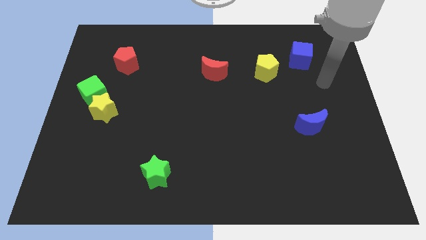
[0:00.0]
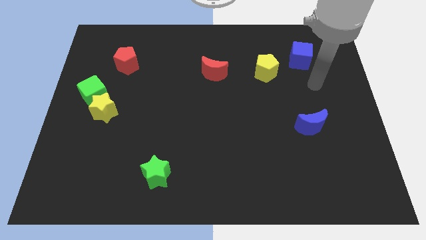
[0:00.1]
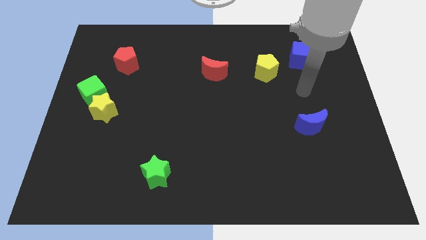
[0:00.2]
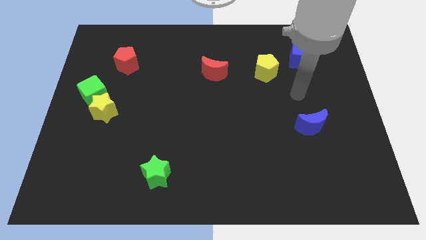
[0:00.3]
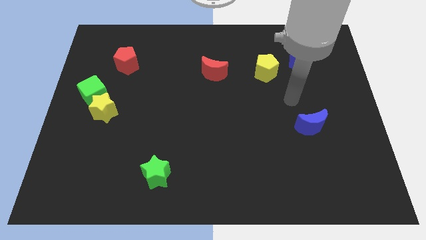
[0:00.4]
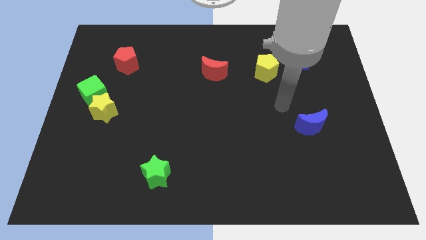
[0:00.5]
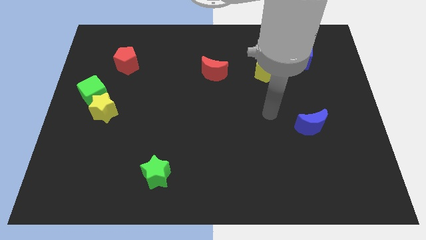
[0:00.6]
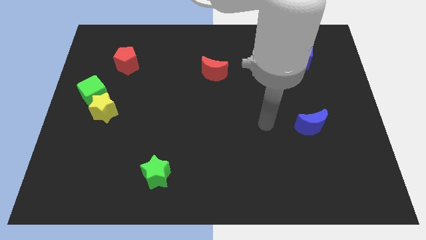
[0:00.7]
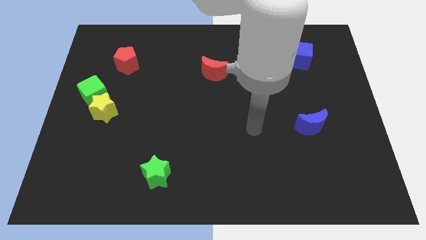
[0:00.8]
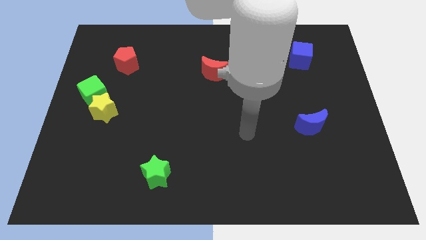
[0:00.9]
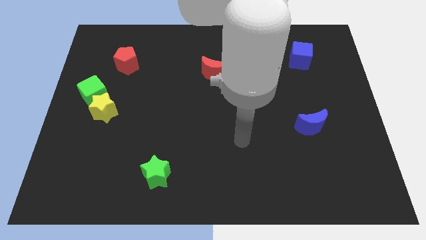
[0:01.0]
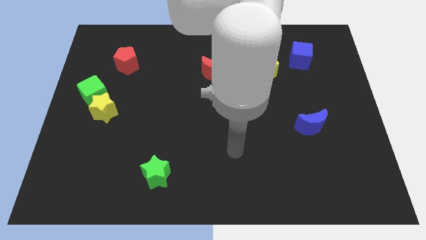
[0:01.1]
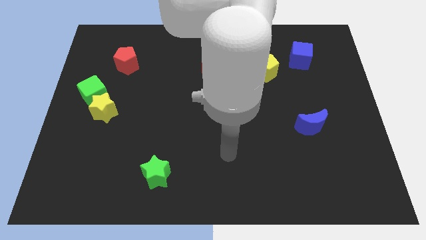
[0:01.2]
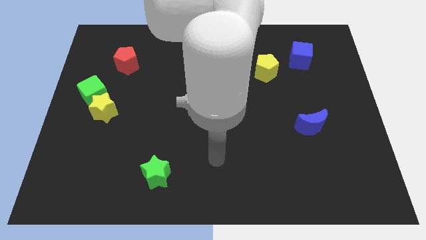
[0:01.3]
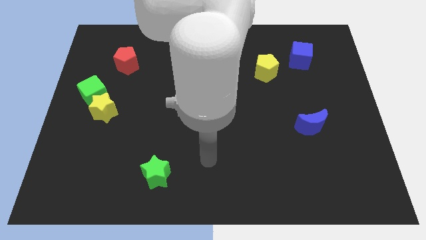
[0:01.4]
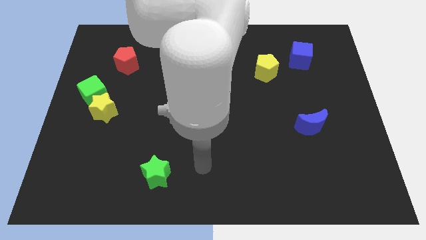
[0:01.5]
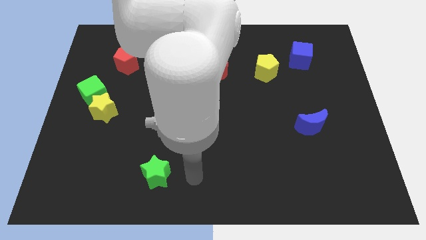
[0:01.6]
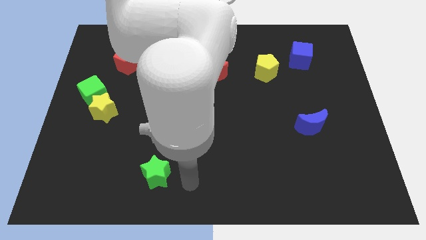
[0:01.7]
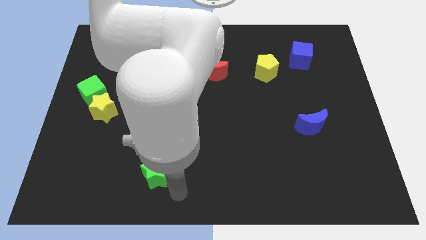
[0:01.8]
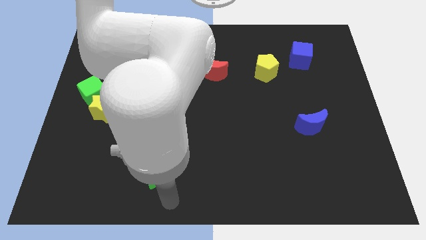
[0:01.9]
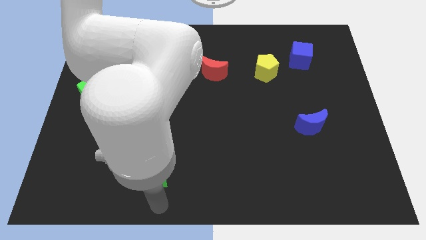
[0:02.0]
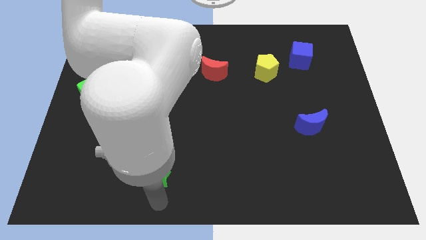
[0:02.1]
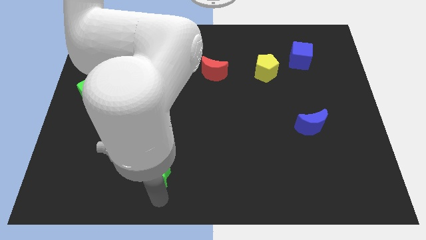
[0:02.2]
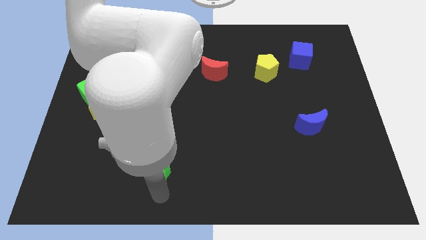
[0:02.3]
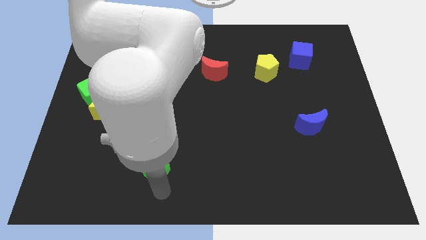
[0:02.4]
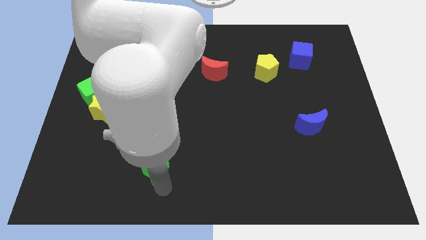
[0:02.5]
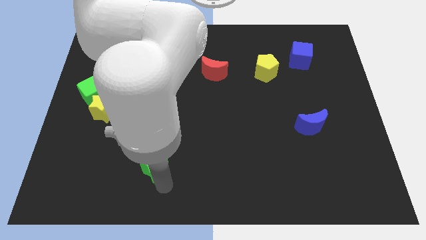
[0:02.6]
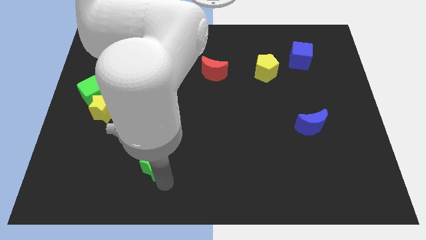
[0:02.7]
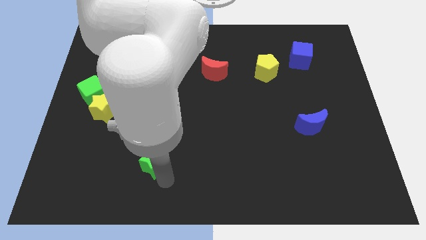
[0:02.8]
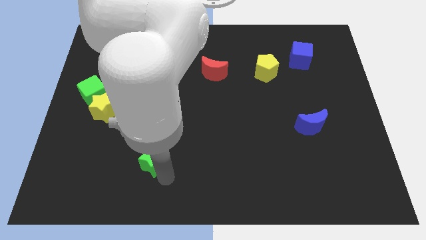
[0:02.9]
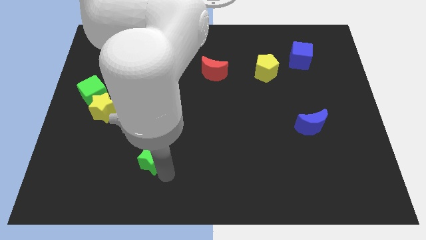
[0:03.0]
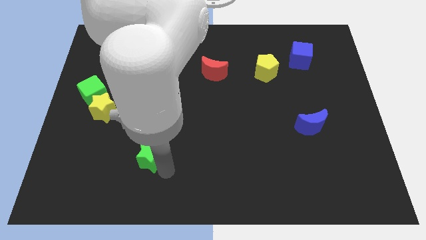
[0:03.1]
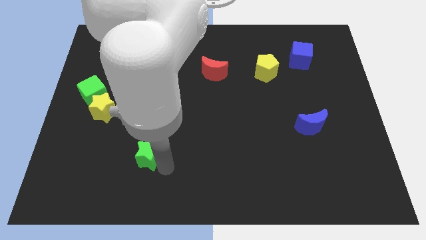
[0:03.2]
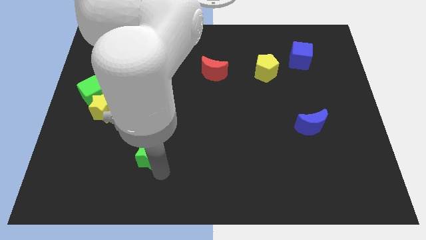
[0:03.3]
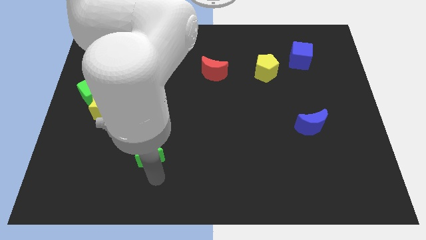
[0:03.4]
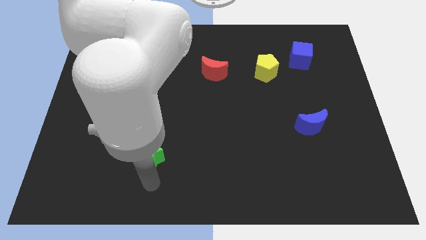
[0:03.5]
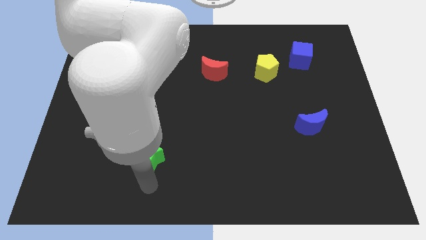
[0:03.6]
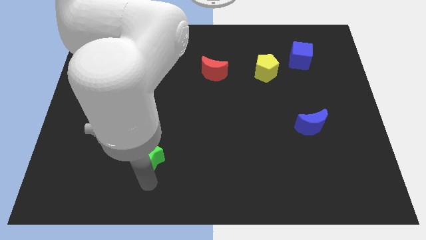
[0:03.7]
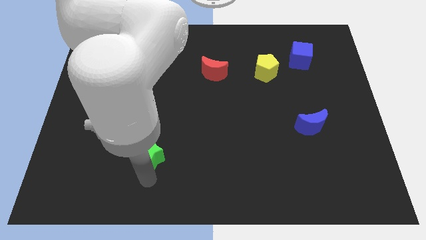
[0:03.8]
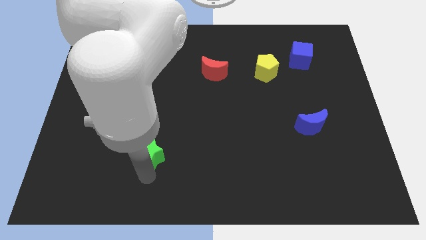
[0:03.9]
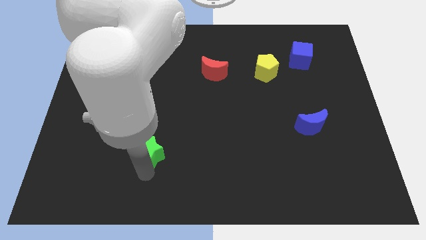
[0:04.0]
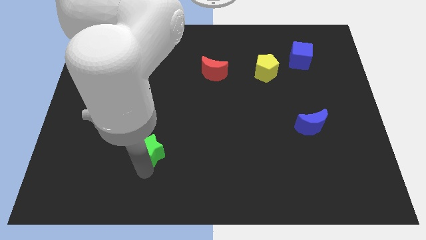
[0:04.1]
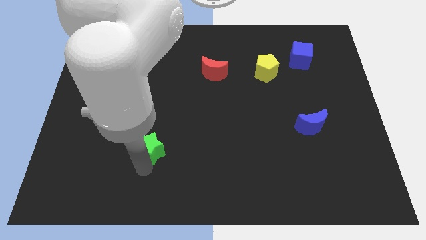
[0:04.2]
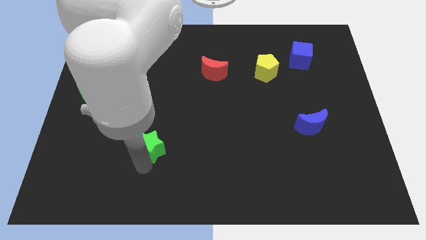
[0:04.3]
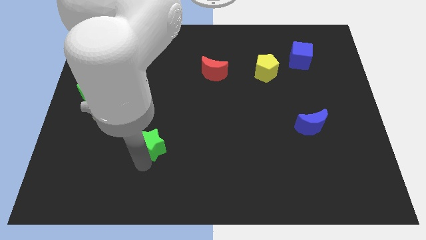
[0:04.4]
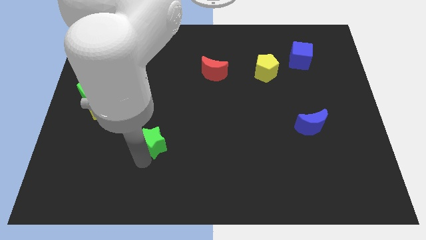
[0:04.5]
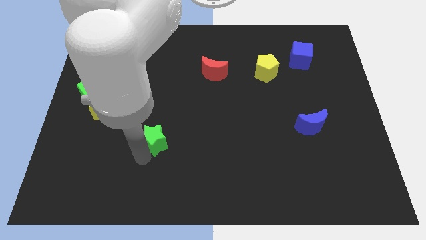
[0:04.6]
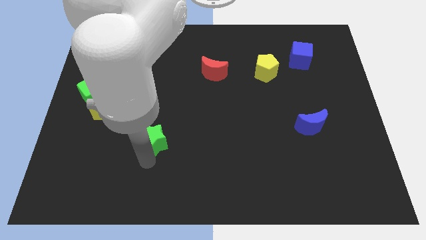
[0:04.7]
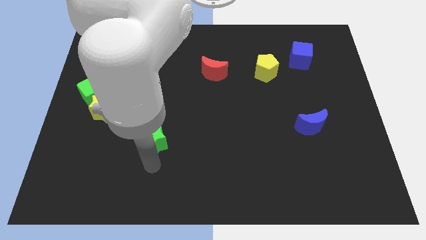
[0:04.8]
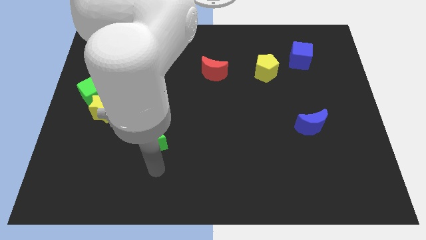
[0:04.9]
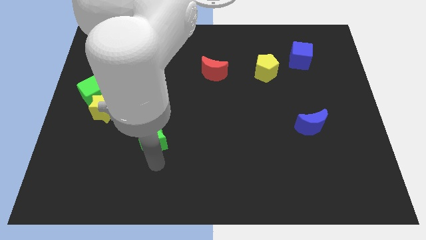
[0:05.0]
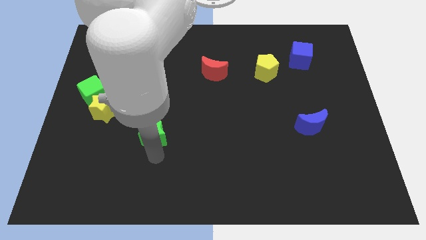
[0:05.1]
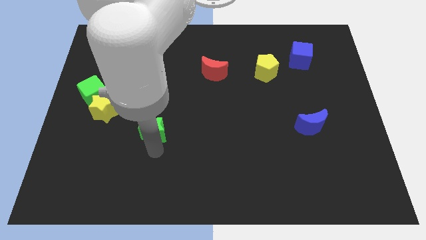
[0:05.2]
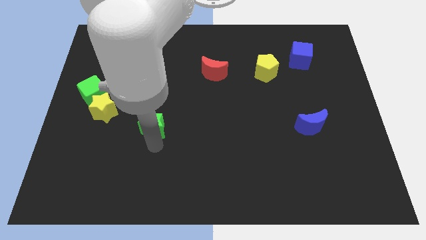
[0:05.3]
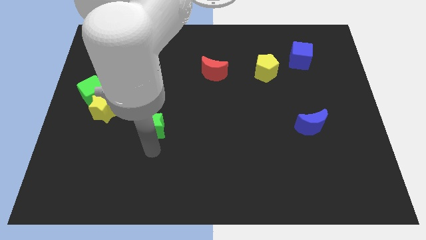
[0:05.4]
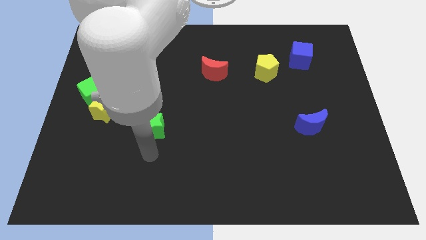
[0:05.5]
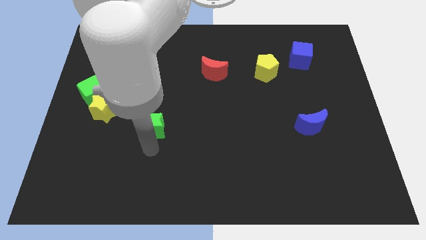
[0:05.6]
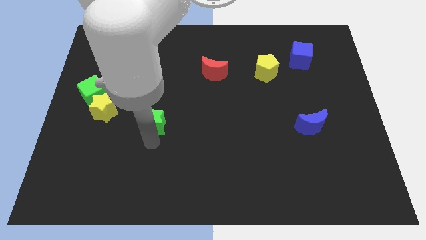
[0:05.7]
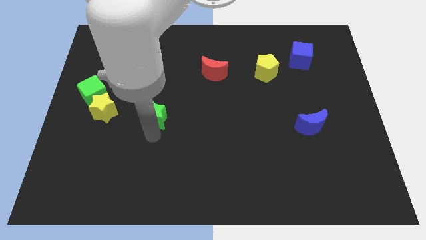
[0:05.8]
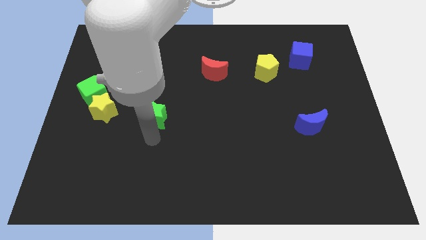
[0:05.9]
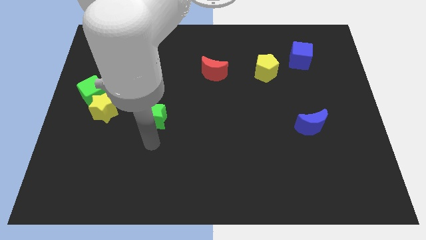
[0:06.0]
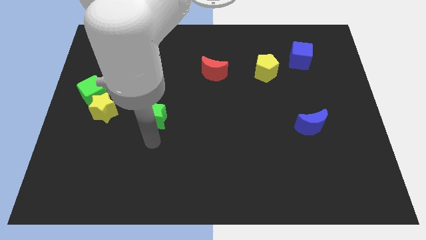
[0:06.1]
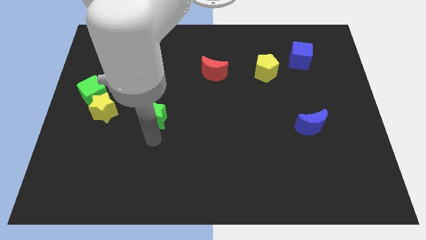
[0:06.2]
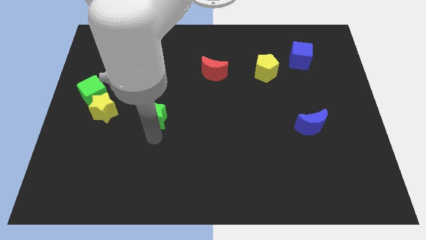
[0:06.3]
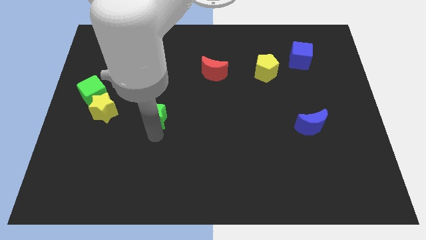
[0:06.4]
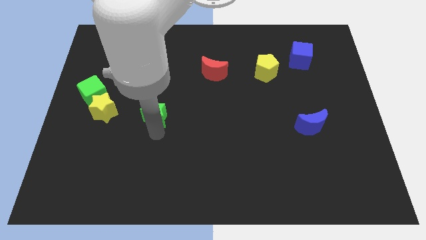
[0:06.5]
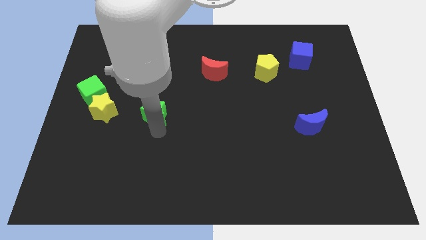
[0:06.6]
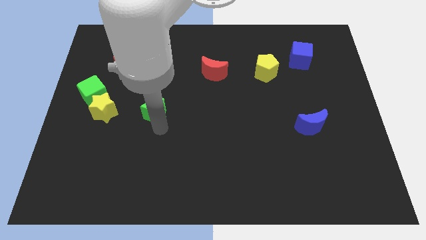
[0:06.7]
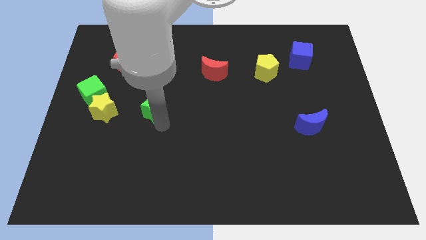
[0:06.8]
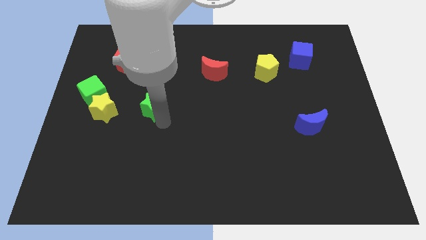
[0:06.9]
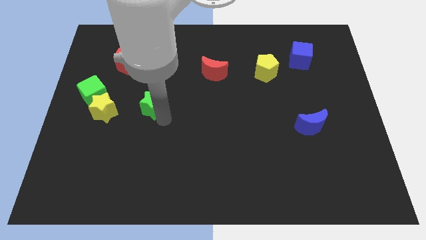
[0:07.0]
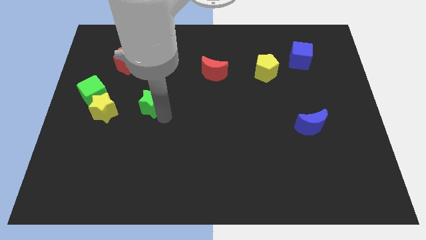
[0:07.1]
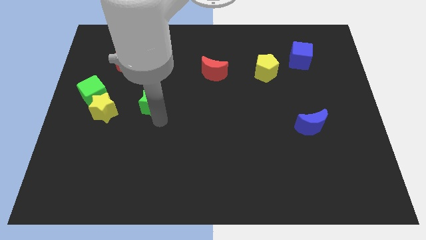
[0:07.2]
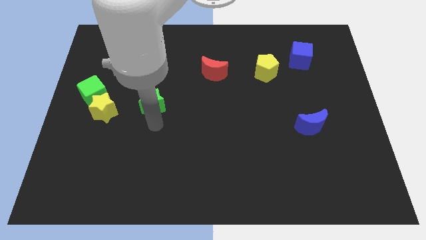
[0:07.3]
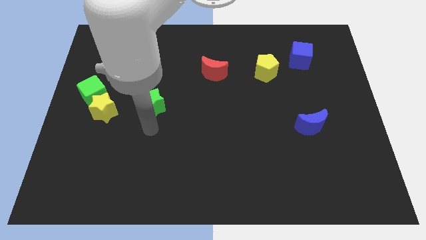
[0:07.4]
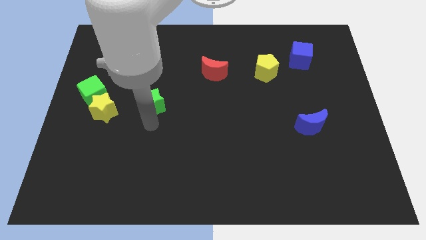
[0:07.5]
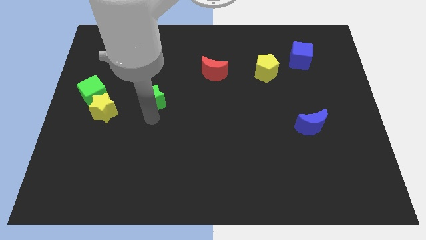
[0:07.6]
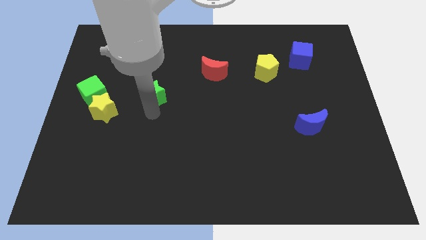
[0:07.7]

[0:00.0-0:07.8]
push the green star upwards

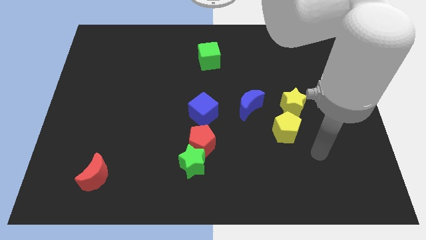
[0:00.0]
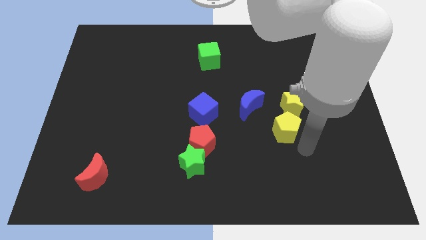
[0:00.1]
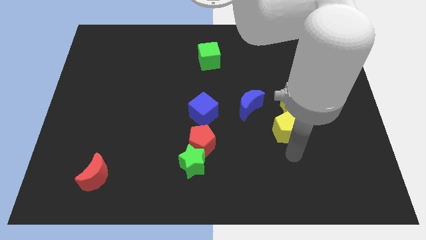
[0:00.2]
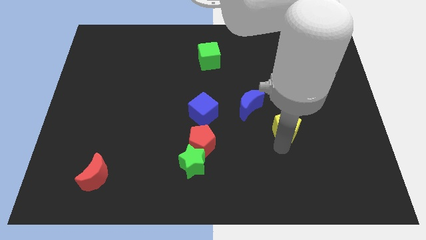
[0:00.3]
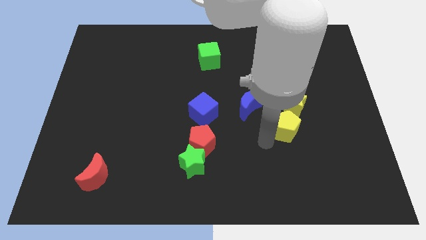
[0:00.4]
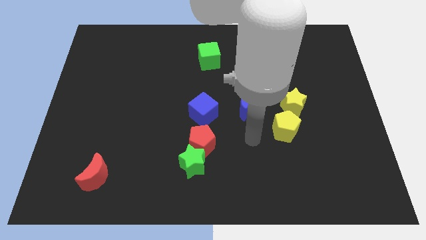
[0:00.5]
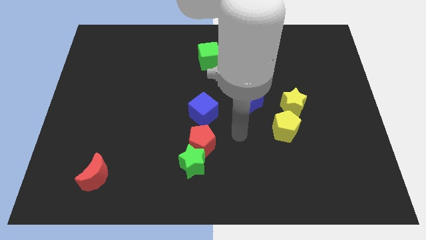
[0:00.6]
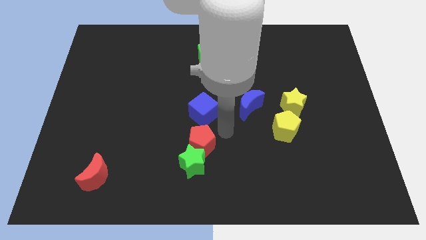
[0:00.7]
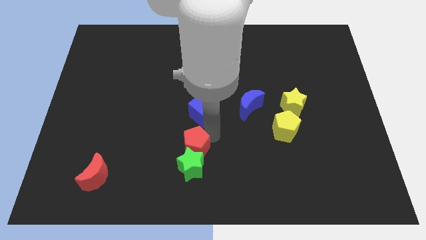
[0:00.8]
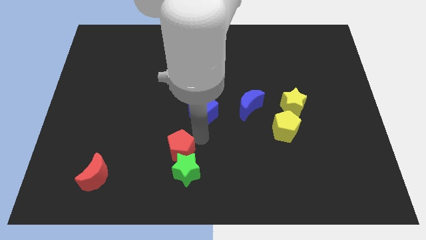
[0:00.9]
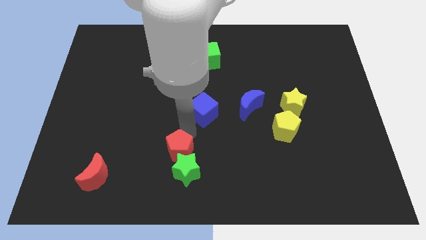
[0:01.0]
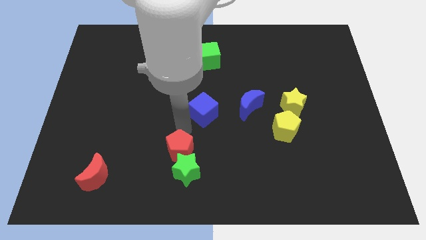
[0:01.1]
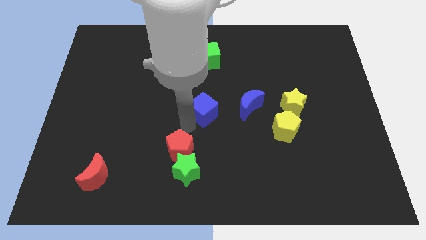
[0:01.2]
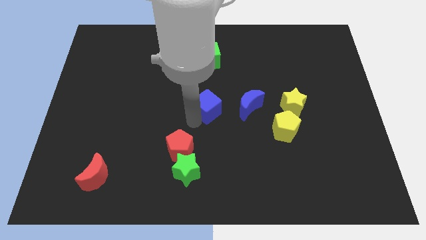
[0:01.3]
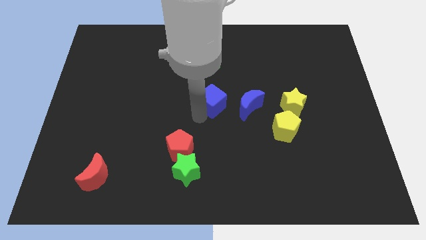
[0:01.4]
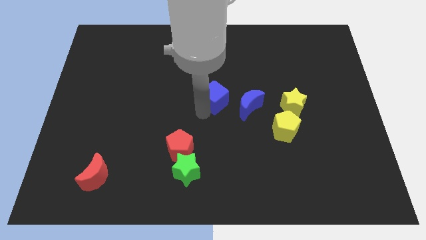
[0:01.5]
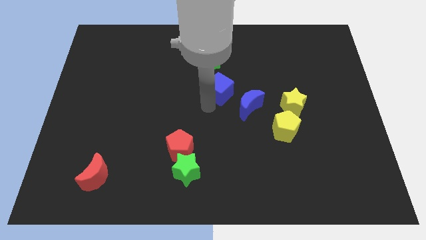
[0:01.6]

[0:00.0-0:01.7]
slide the blue cube a bit upwards and then to the right
